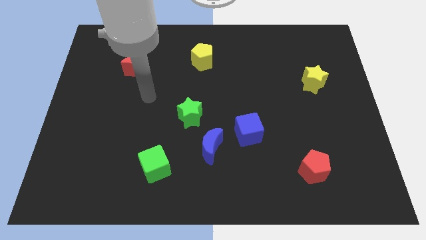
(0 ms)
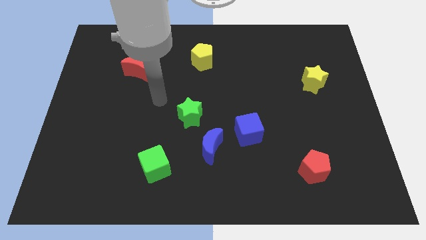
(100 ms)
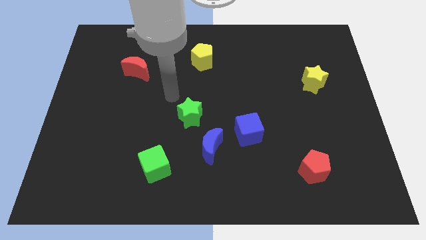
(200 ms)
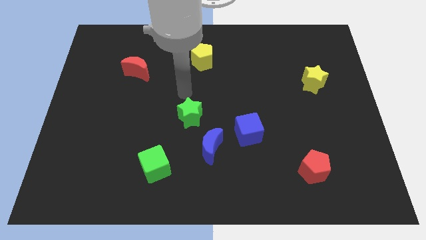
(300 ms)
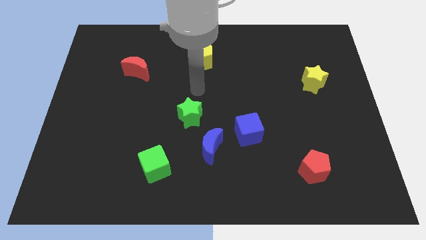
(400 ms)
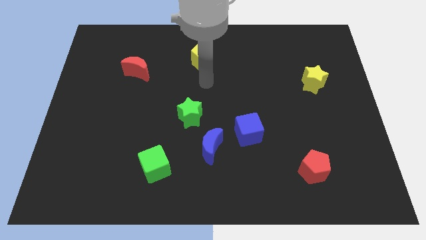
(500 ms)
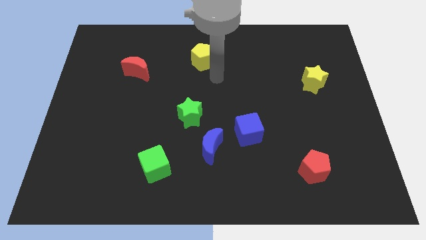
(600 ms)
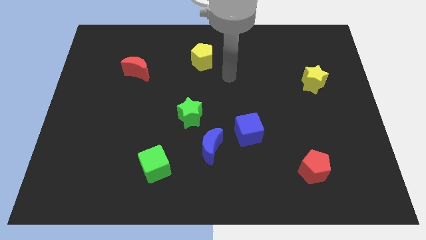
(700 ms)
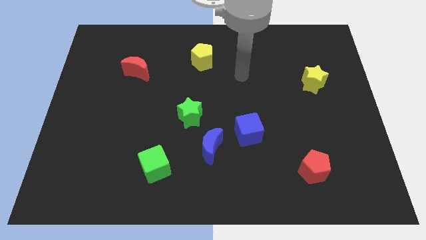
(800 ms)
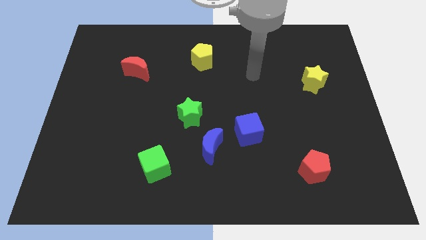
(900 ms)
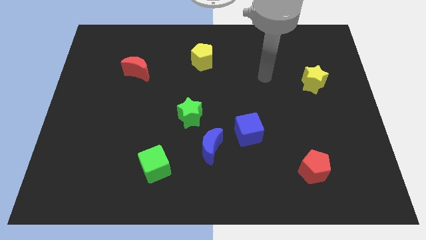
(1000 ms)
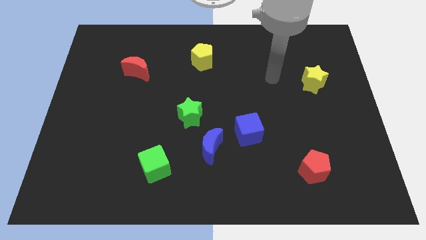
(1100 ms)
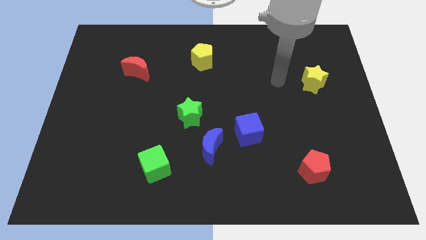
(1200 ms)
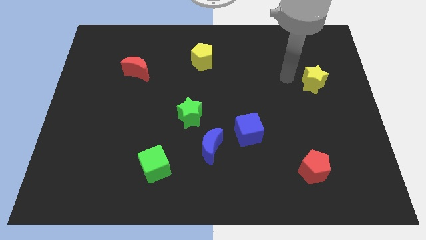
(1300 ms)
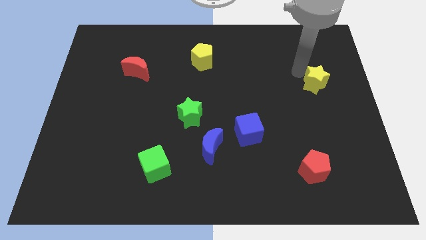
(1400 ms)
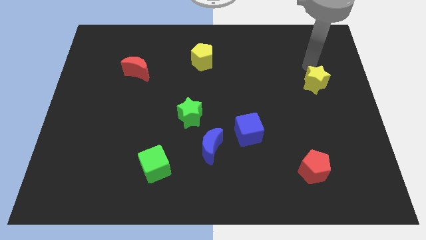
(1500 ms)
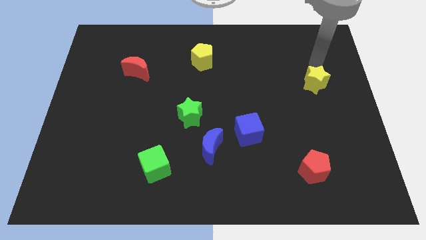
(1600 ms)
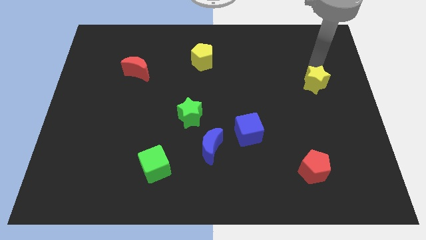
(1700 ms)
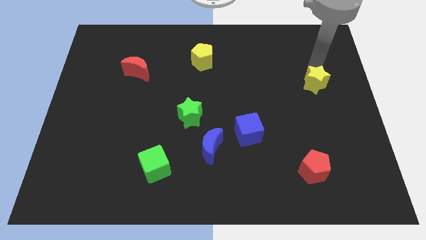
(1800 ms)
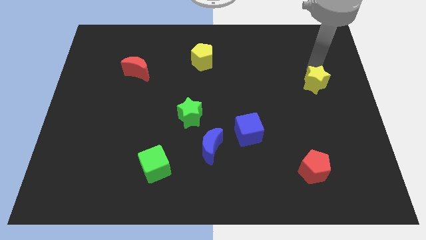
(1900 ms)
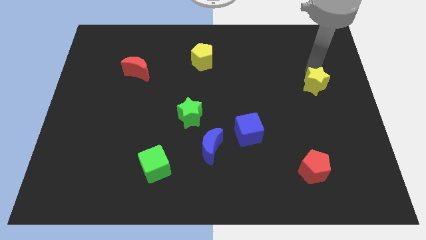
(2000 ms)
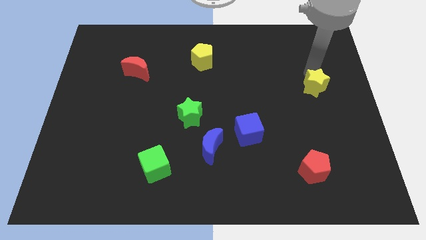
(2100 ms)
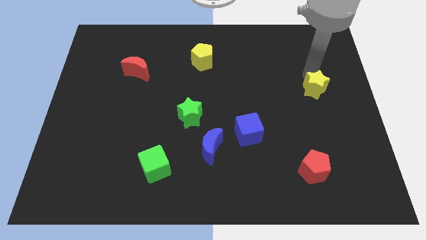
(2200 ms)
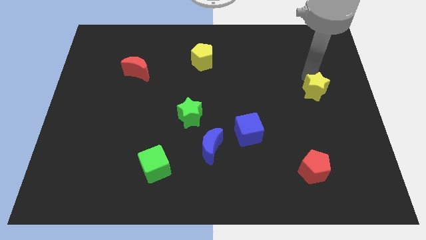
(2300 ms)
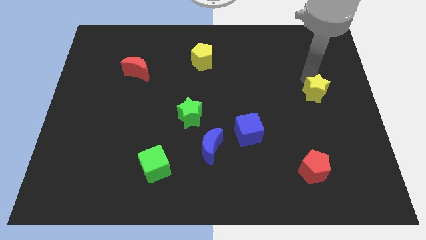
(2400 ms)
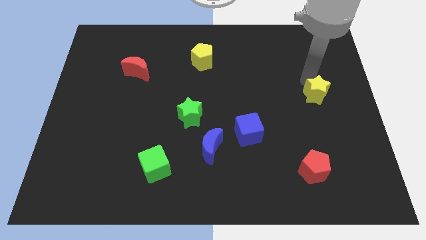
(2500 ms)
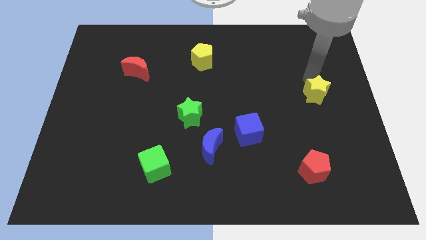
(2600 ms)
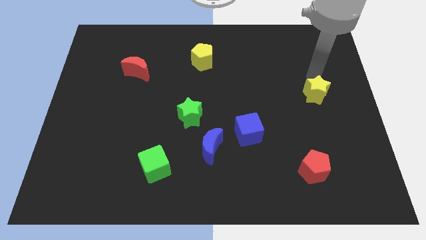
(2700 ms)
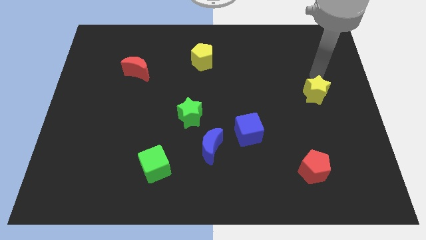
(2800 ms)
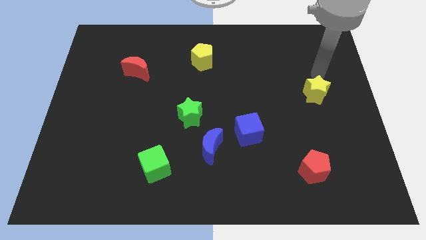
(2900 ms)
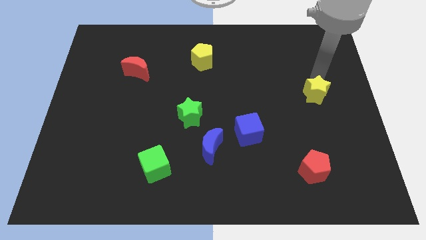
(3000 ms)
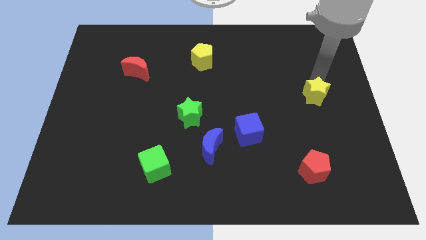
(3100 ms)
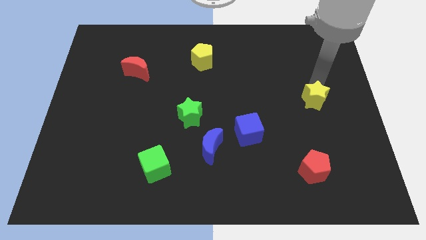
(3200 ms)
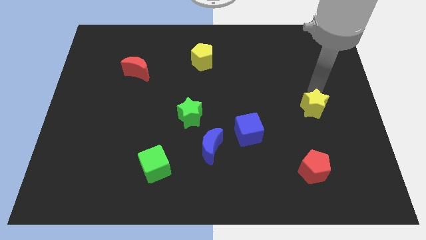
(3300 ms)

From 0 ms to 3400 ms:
push the yellow star slightly down

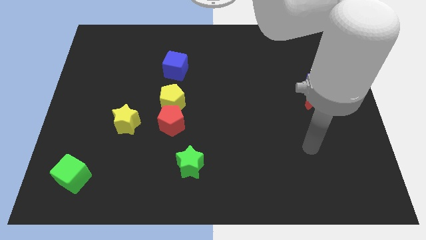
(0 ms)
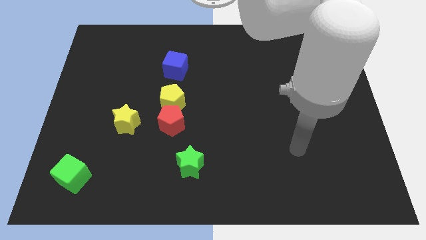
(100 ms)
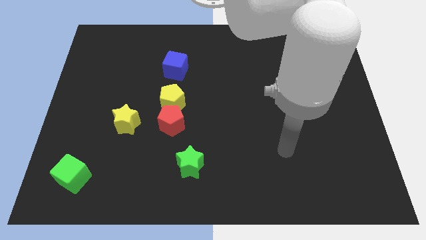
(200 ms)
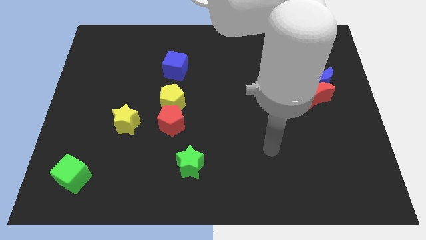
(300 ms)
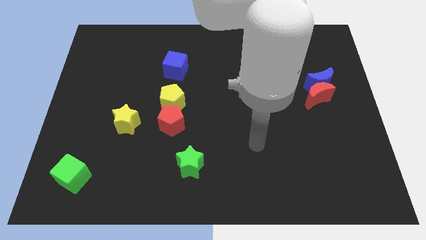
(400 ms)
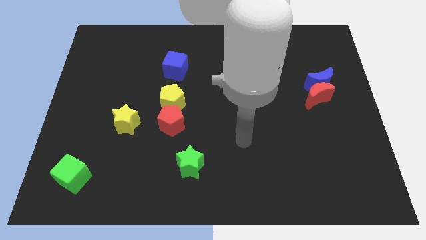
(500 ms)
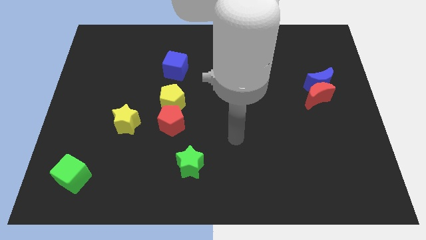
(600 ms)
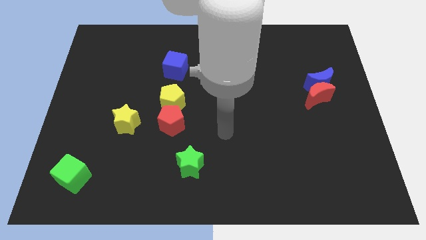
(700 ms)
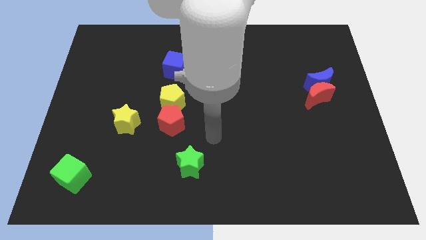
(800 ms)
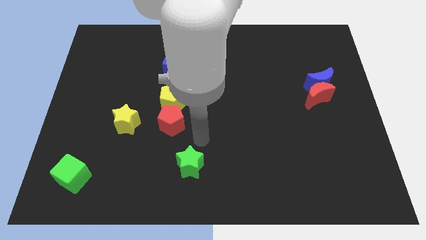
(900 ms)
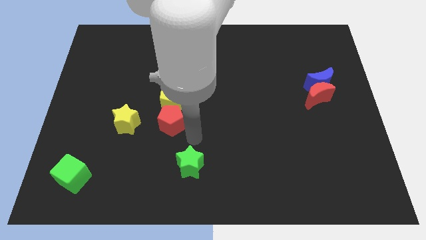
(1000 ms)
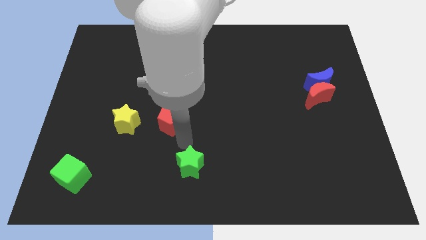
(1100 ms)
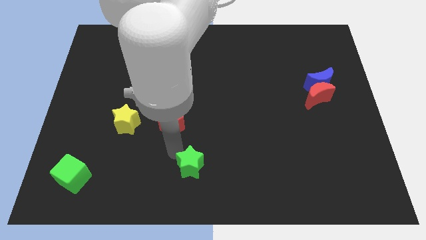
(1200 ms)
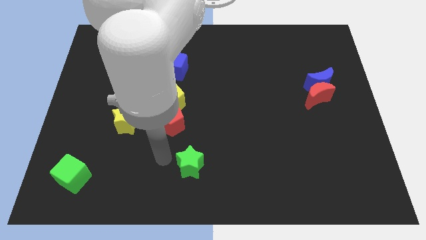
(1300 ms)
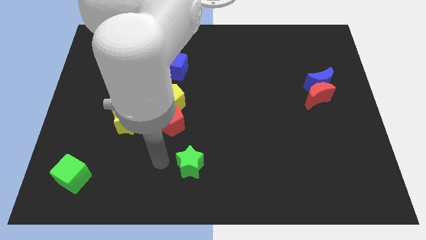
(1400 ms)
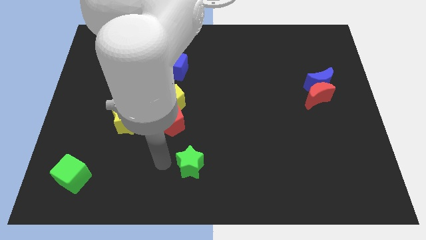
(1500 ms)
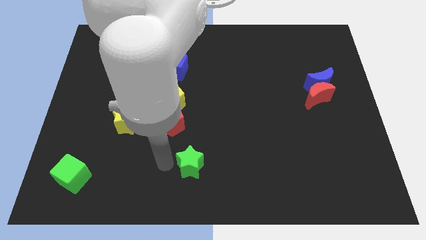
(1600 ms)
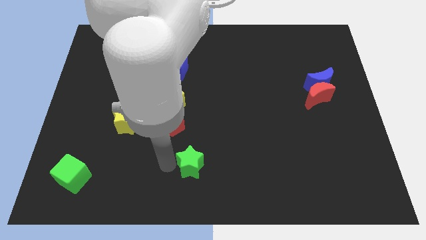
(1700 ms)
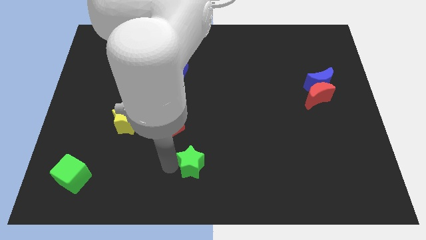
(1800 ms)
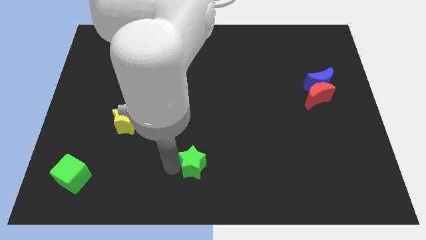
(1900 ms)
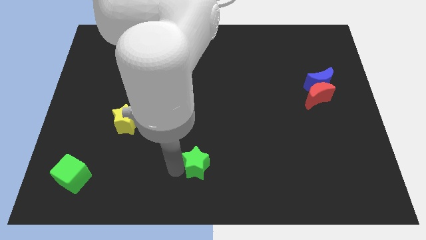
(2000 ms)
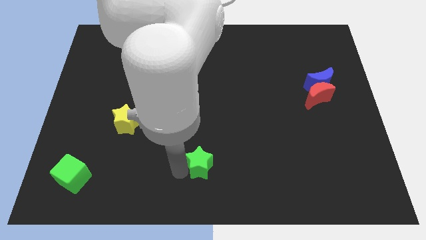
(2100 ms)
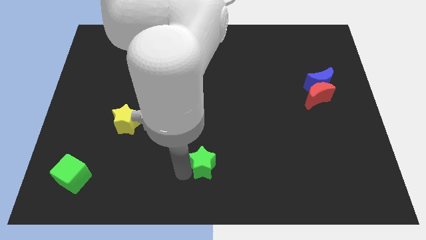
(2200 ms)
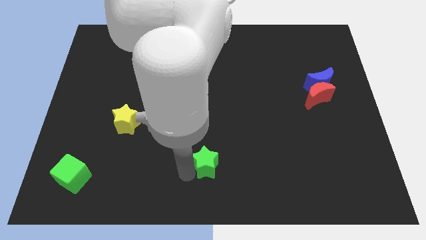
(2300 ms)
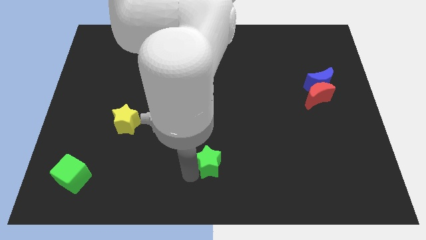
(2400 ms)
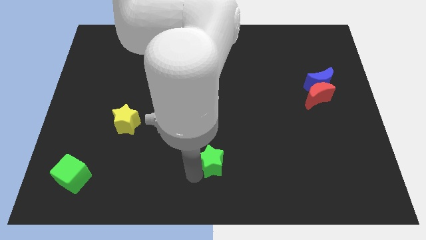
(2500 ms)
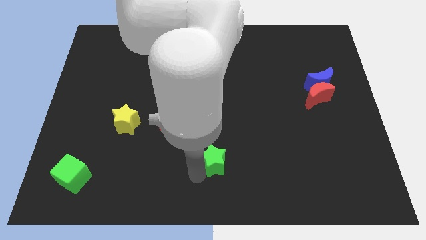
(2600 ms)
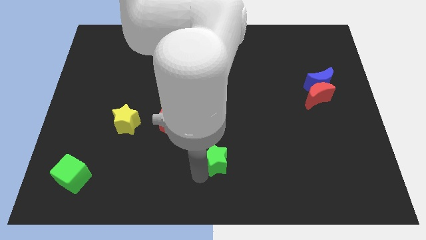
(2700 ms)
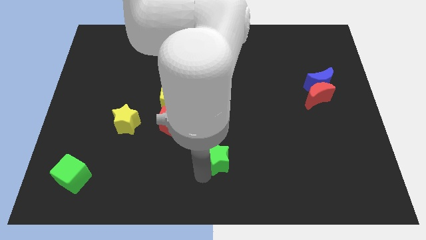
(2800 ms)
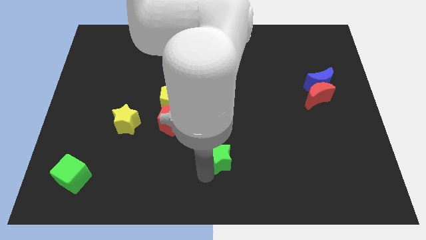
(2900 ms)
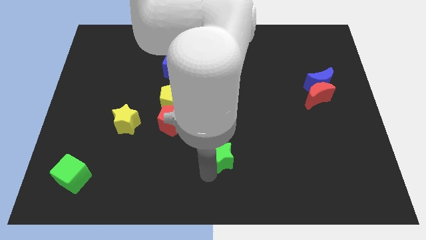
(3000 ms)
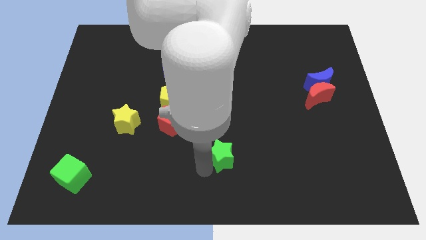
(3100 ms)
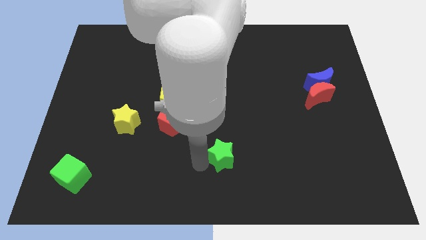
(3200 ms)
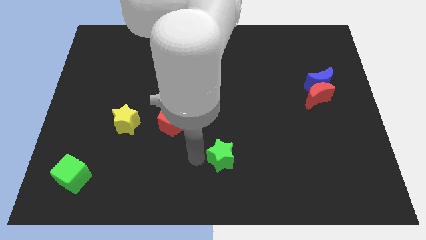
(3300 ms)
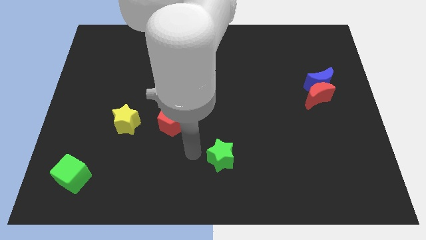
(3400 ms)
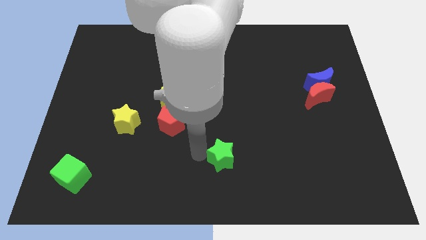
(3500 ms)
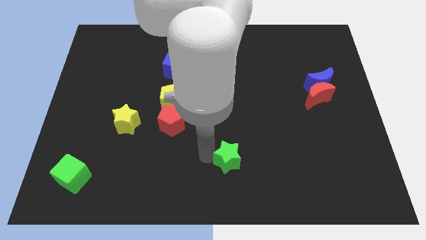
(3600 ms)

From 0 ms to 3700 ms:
slide the green star a bit right

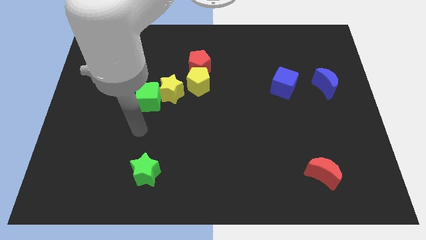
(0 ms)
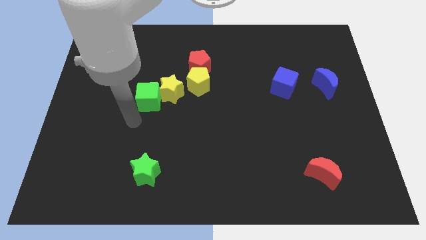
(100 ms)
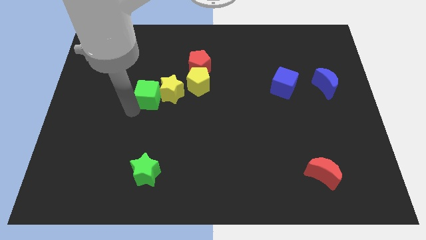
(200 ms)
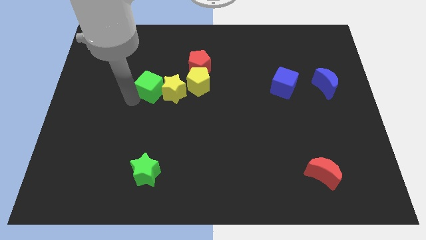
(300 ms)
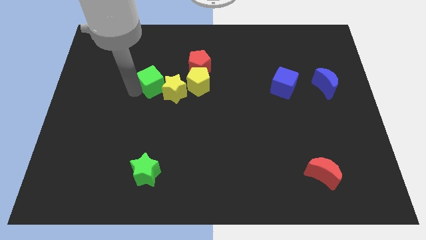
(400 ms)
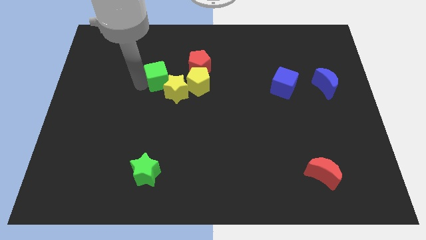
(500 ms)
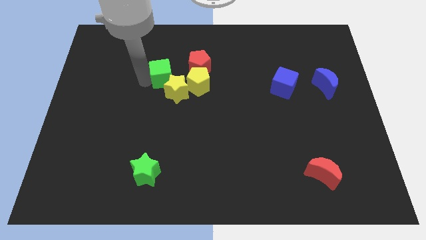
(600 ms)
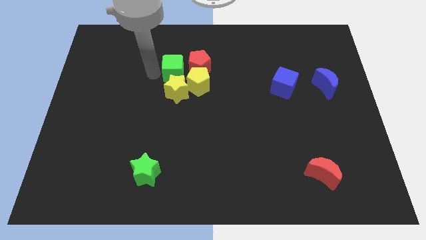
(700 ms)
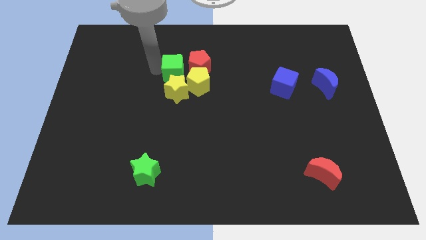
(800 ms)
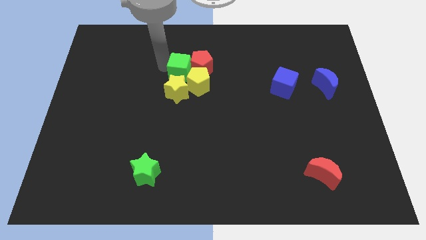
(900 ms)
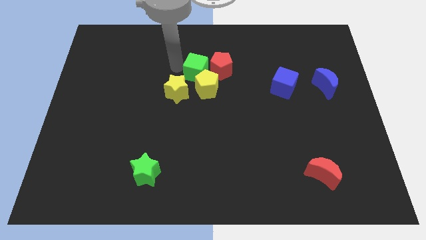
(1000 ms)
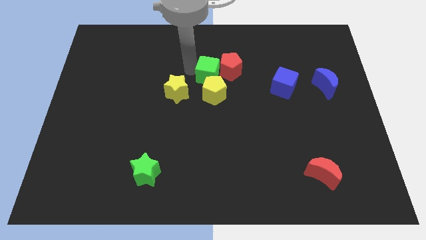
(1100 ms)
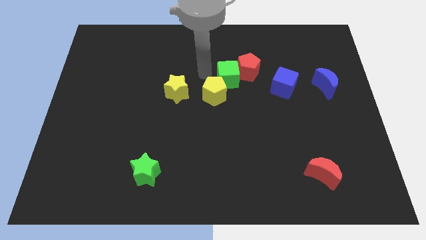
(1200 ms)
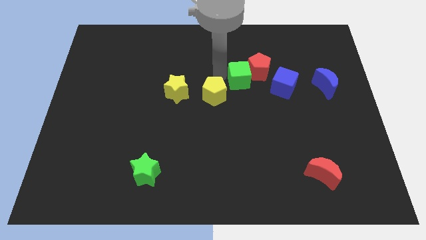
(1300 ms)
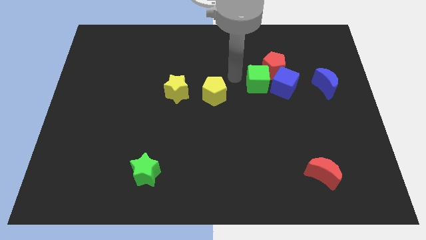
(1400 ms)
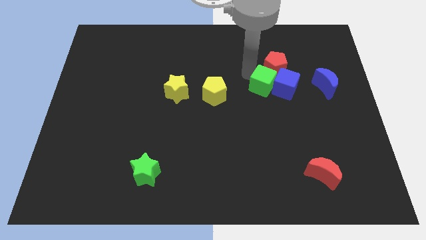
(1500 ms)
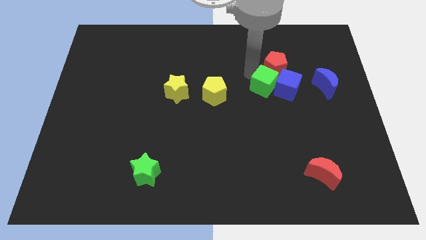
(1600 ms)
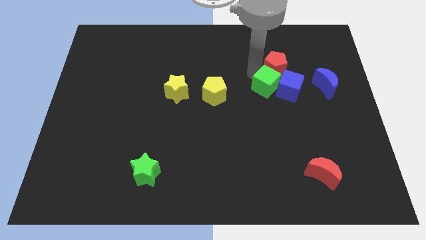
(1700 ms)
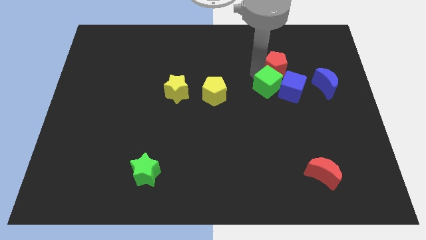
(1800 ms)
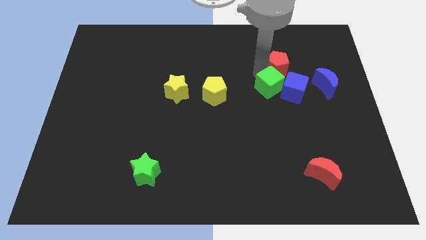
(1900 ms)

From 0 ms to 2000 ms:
move the red pentagon right
